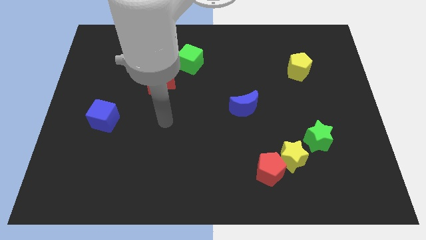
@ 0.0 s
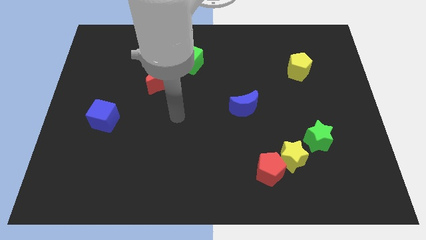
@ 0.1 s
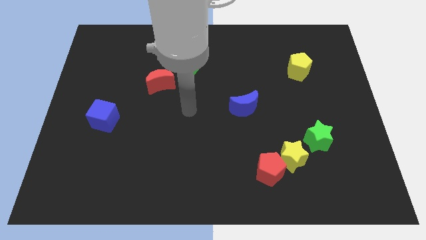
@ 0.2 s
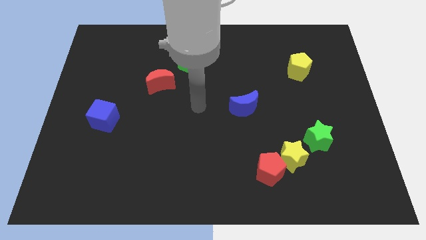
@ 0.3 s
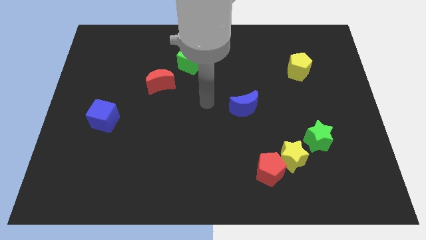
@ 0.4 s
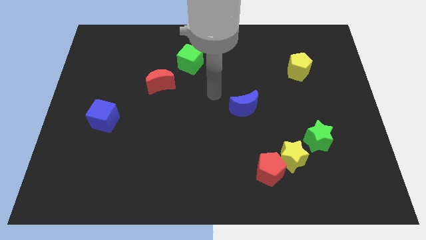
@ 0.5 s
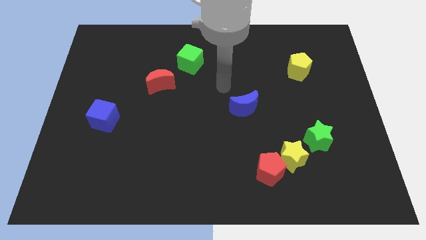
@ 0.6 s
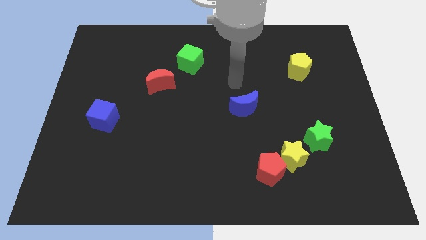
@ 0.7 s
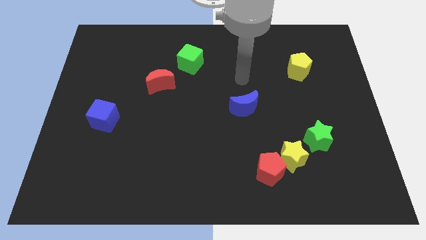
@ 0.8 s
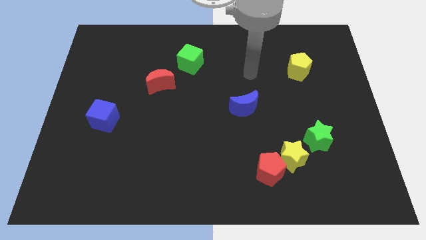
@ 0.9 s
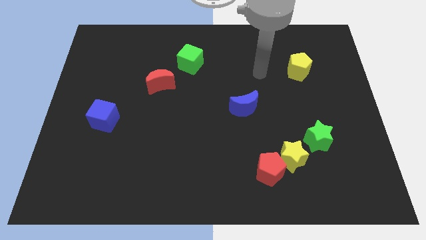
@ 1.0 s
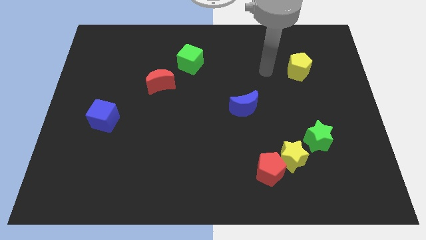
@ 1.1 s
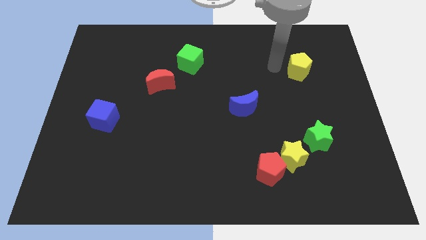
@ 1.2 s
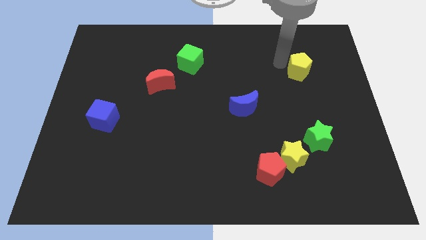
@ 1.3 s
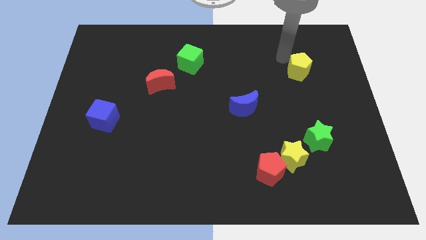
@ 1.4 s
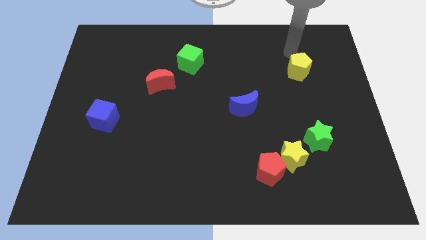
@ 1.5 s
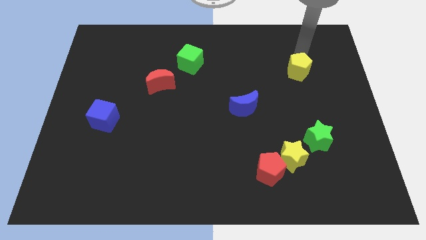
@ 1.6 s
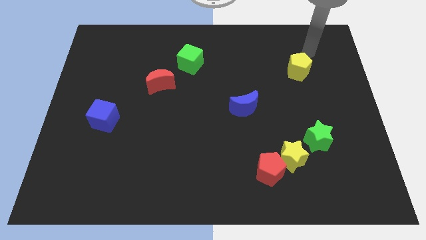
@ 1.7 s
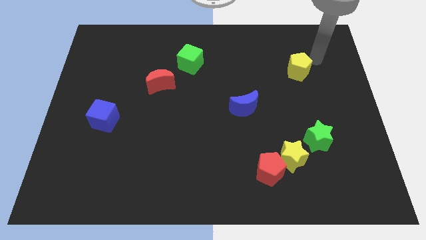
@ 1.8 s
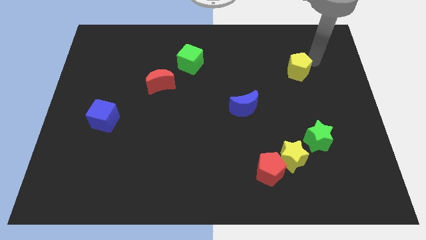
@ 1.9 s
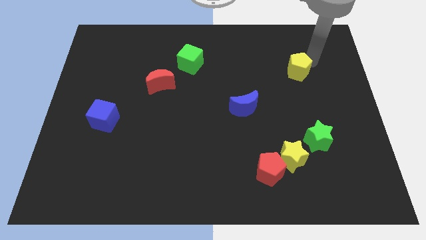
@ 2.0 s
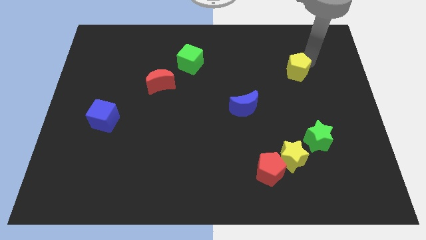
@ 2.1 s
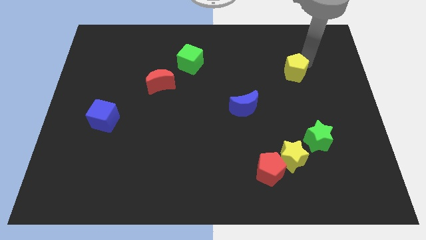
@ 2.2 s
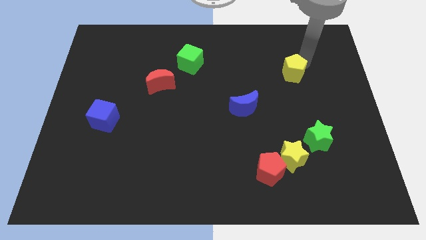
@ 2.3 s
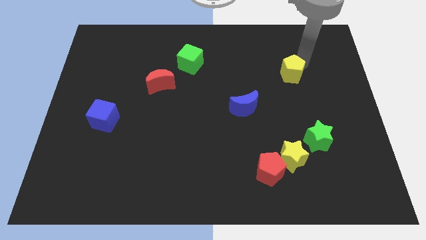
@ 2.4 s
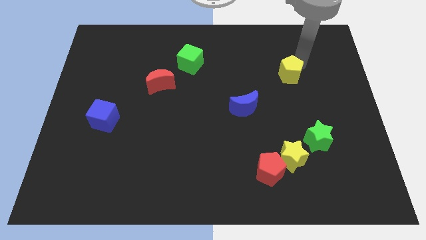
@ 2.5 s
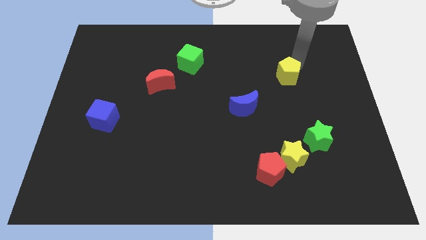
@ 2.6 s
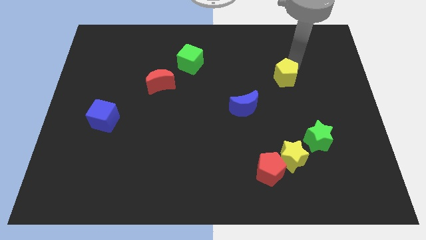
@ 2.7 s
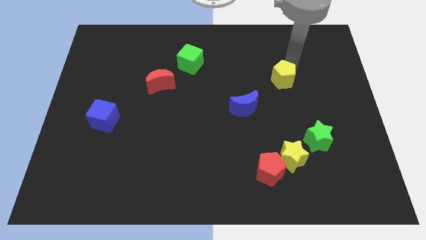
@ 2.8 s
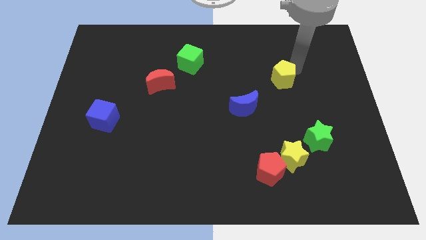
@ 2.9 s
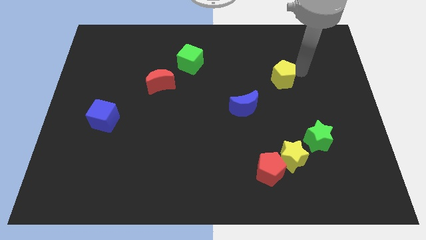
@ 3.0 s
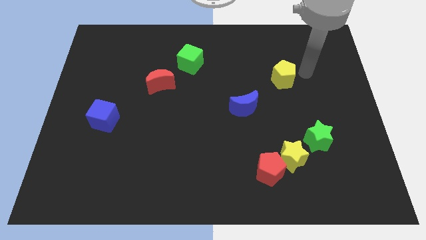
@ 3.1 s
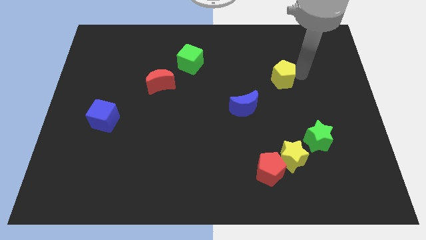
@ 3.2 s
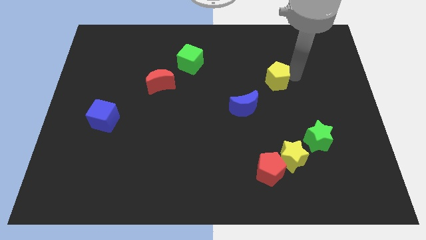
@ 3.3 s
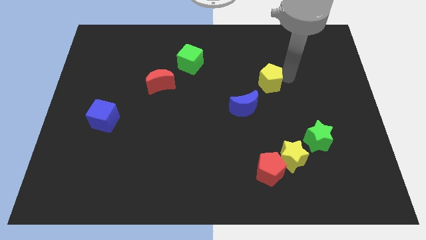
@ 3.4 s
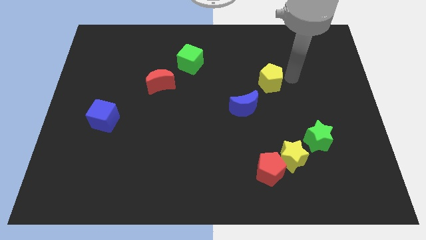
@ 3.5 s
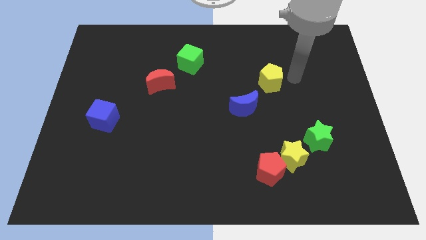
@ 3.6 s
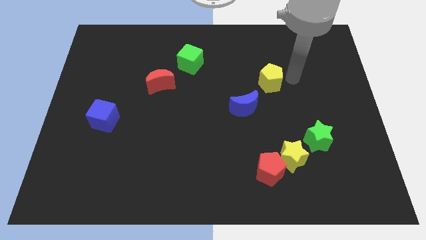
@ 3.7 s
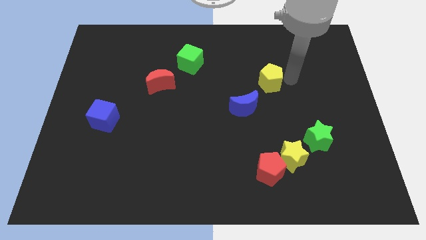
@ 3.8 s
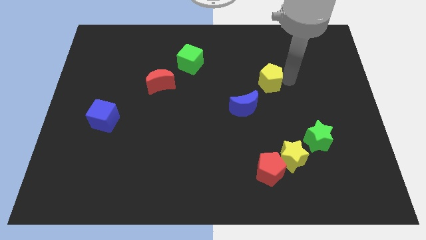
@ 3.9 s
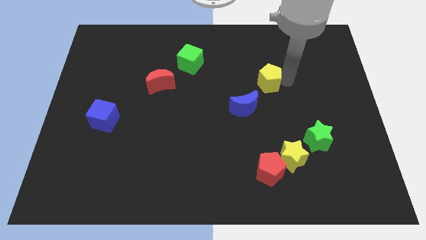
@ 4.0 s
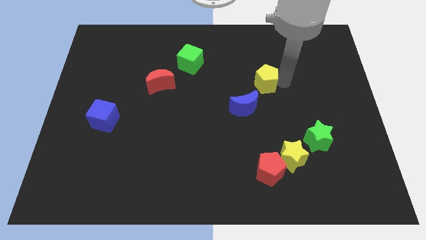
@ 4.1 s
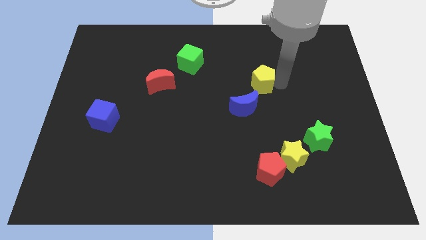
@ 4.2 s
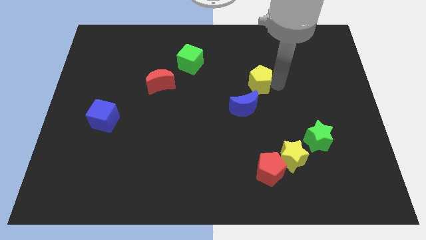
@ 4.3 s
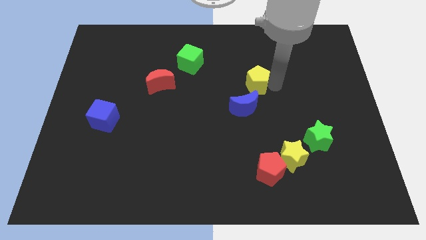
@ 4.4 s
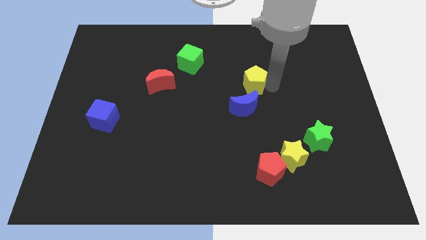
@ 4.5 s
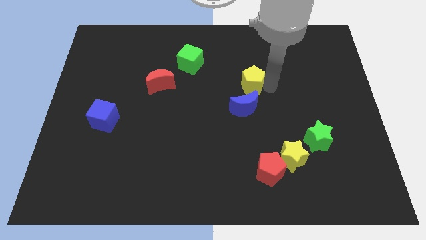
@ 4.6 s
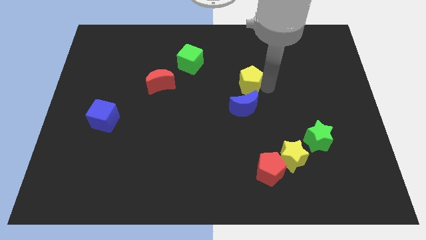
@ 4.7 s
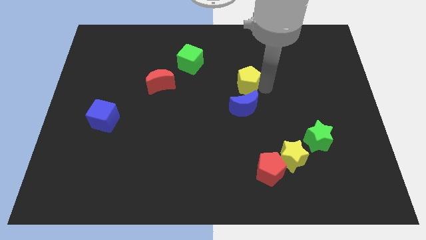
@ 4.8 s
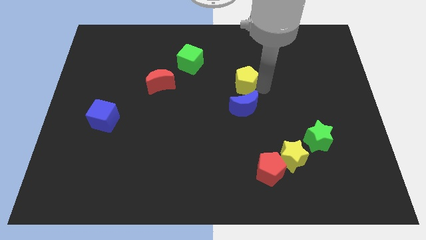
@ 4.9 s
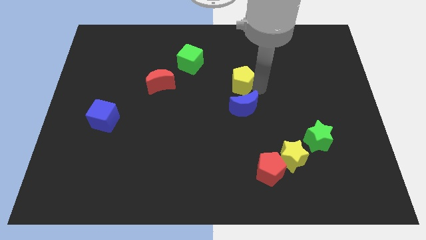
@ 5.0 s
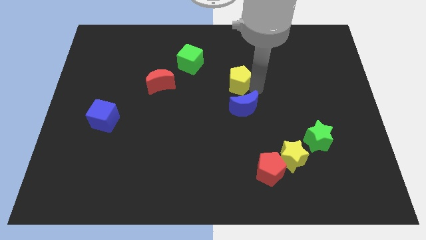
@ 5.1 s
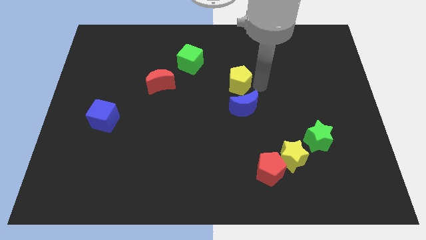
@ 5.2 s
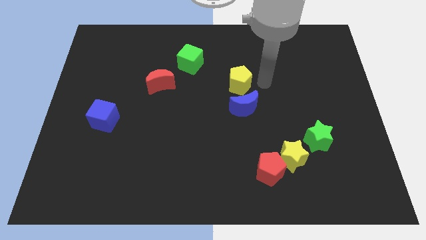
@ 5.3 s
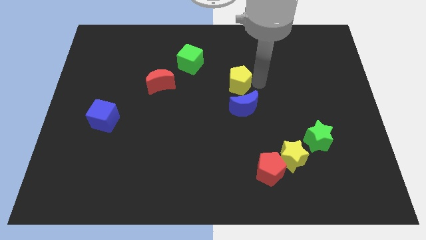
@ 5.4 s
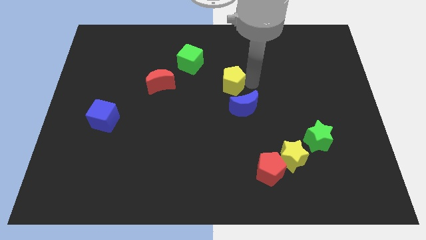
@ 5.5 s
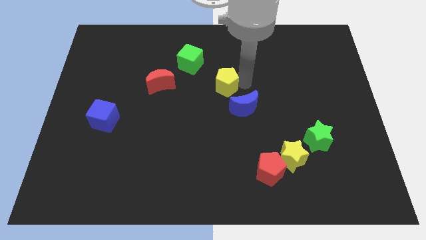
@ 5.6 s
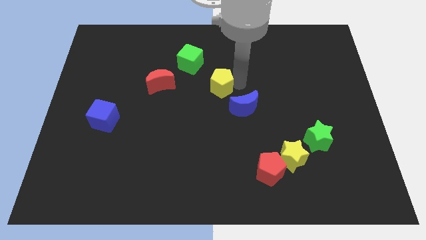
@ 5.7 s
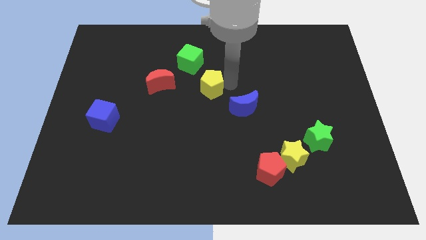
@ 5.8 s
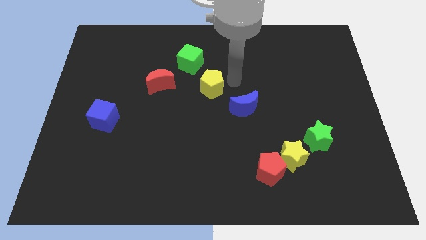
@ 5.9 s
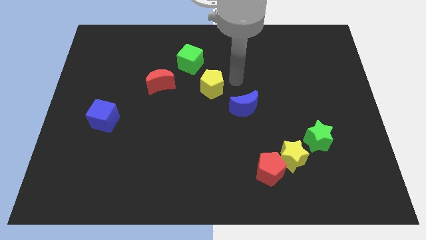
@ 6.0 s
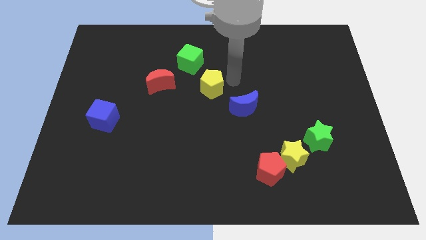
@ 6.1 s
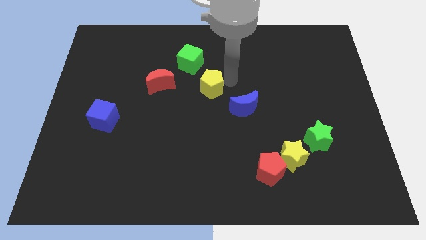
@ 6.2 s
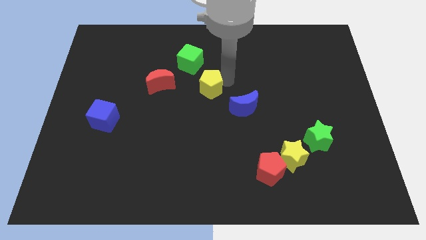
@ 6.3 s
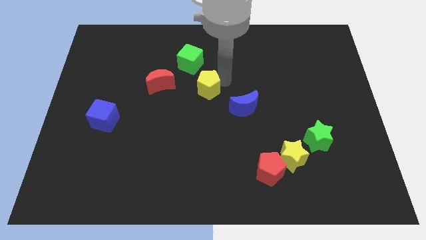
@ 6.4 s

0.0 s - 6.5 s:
push the yellow pentagon below the green cube

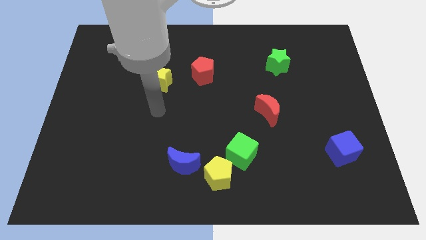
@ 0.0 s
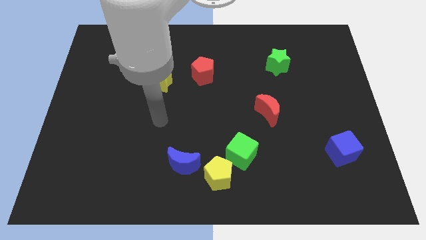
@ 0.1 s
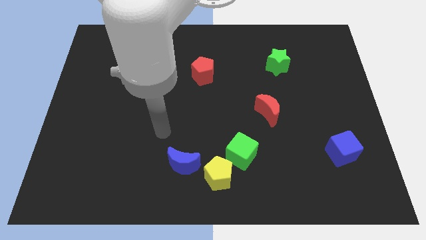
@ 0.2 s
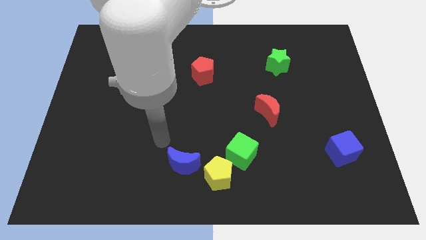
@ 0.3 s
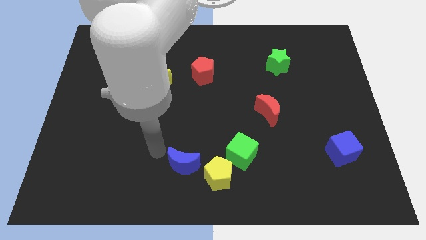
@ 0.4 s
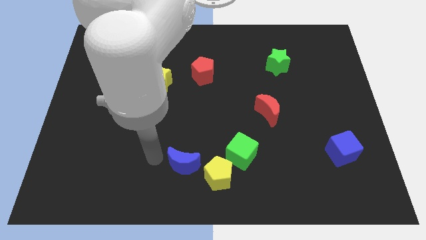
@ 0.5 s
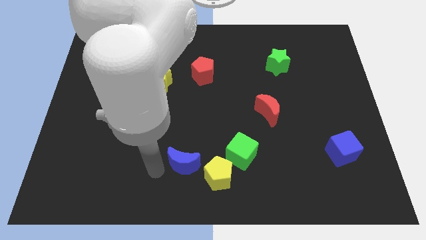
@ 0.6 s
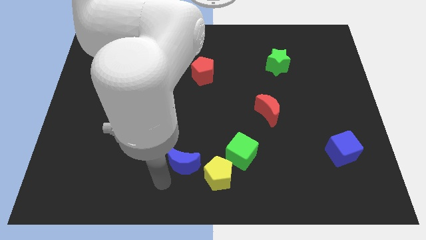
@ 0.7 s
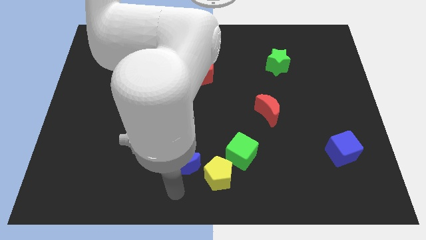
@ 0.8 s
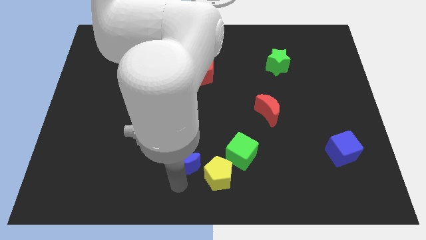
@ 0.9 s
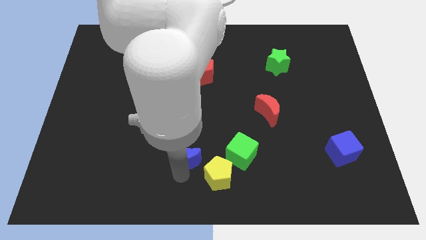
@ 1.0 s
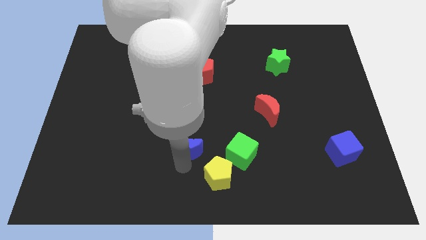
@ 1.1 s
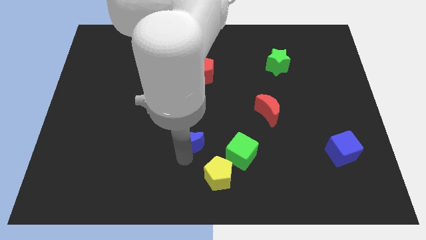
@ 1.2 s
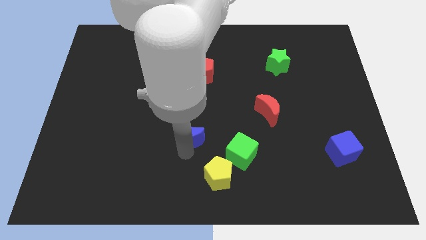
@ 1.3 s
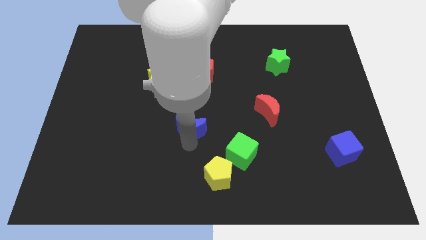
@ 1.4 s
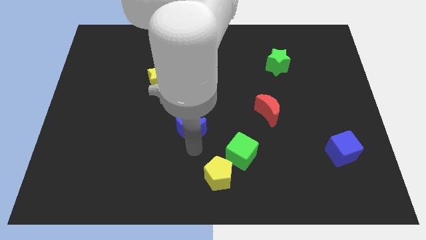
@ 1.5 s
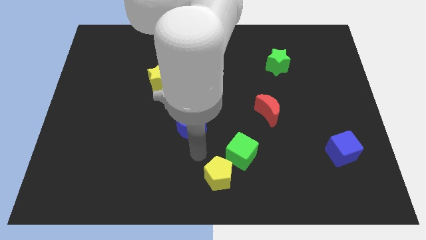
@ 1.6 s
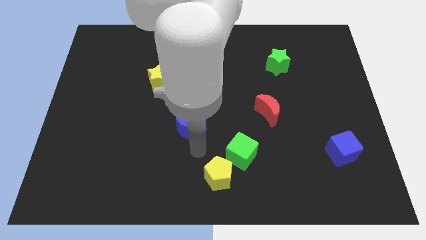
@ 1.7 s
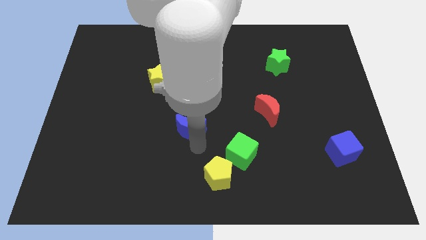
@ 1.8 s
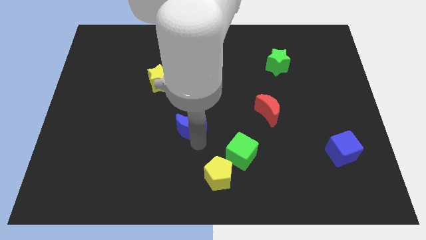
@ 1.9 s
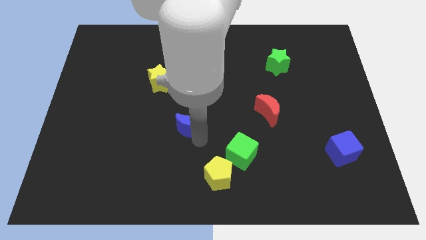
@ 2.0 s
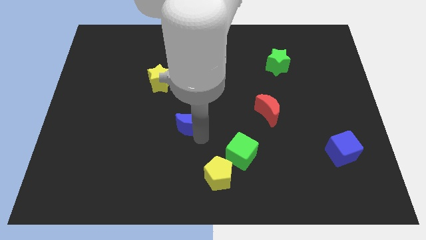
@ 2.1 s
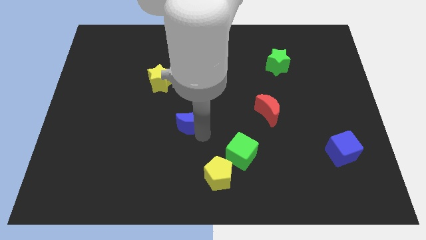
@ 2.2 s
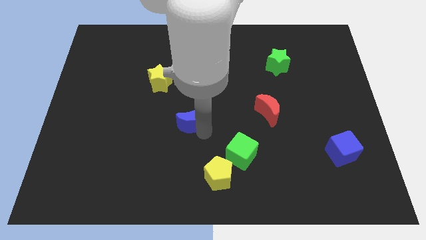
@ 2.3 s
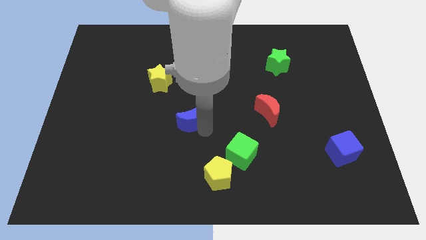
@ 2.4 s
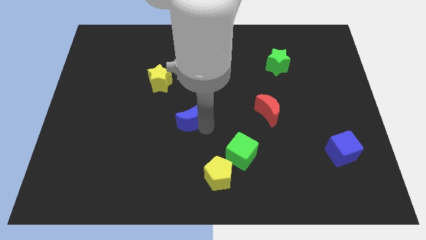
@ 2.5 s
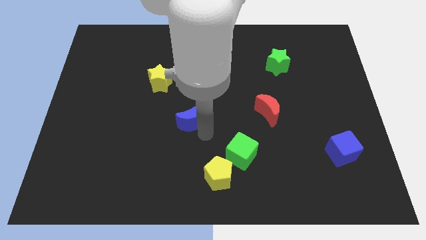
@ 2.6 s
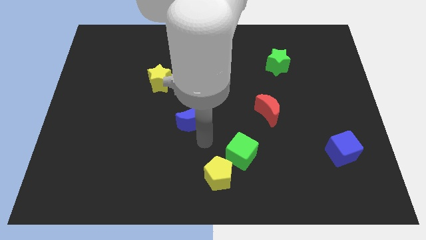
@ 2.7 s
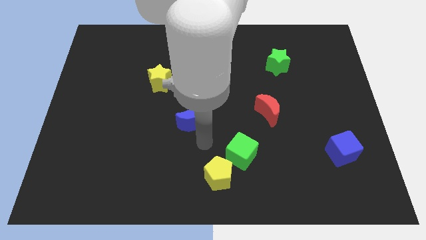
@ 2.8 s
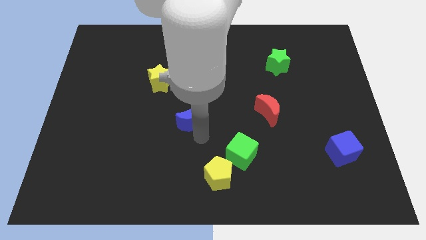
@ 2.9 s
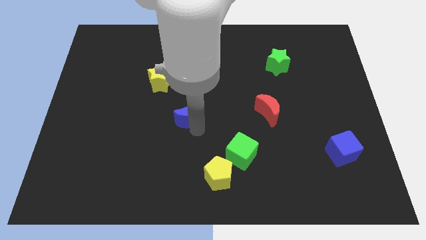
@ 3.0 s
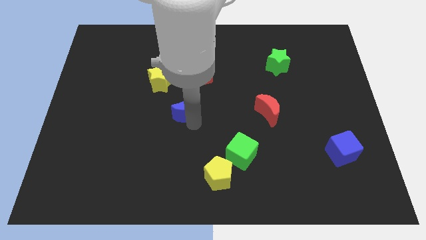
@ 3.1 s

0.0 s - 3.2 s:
push the blue moon to the bottom right side of the yellow star
